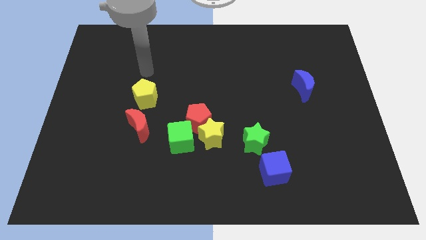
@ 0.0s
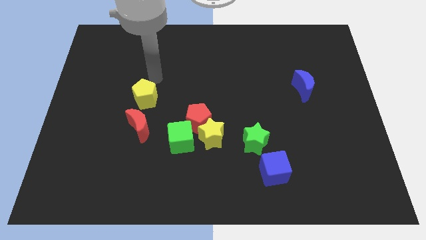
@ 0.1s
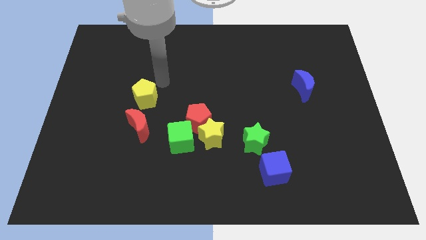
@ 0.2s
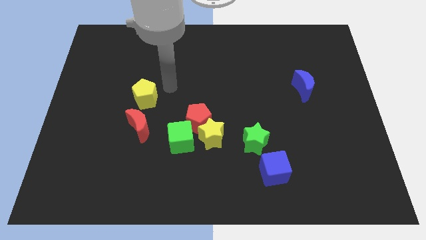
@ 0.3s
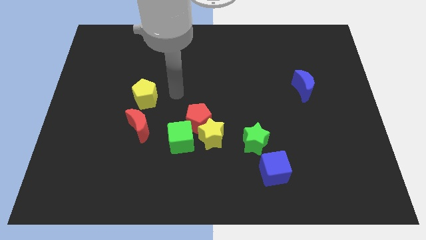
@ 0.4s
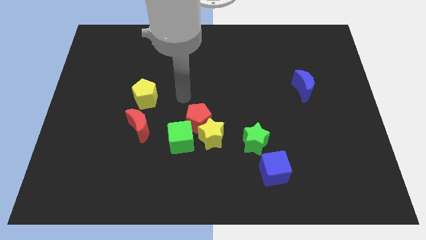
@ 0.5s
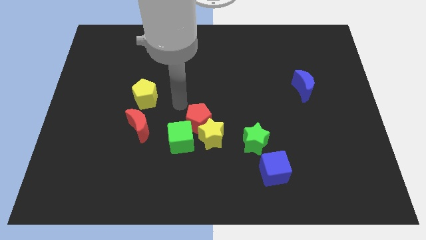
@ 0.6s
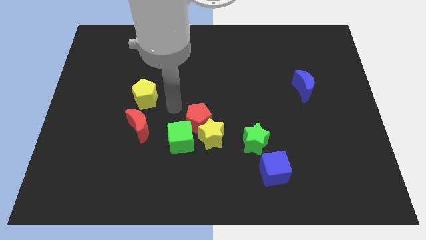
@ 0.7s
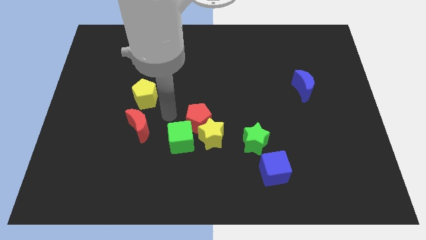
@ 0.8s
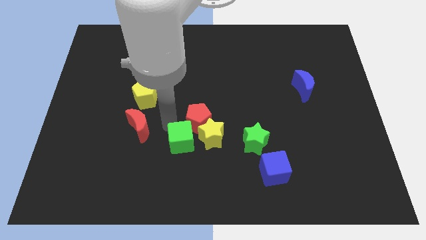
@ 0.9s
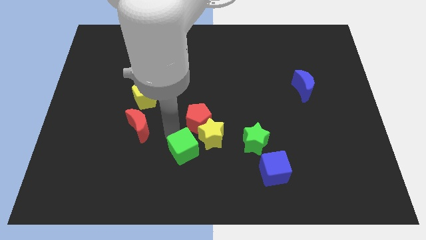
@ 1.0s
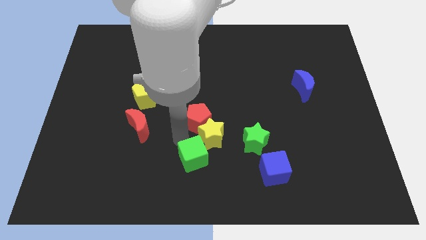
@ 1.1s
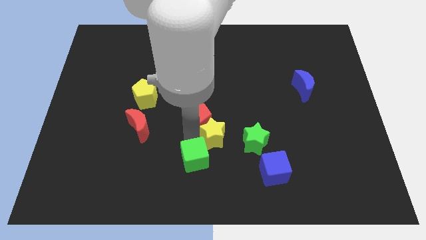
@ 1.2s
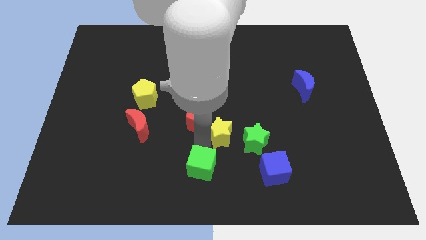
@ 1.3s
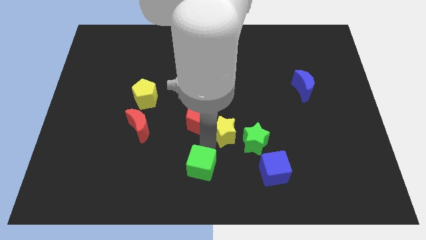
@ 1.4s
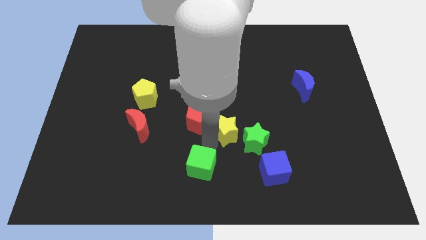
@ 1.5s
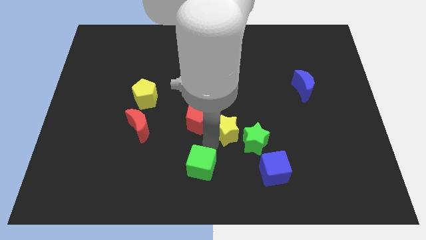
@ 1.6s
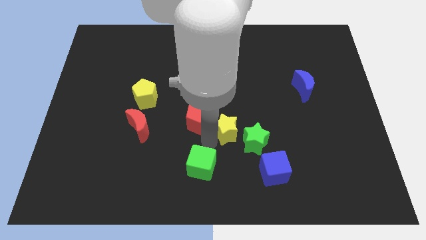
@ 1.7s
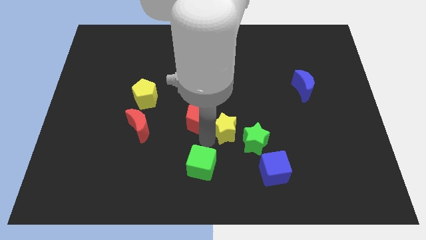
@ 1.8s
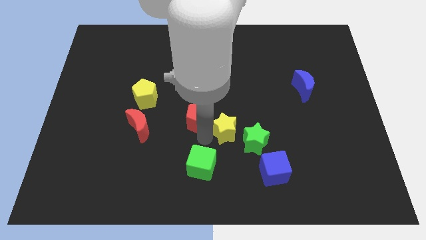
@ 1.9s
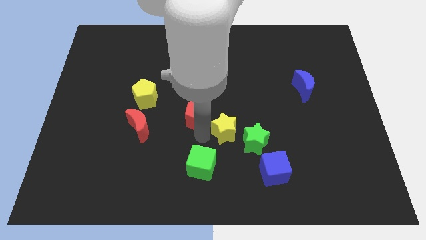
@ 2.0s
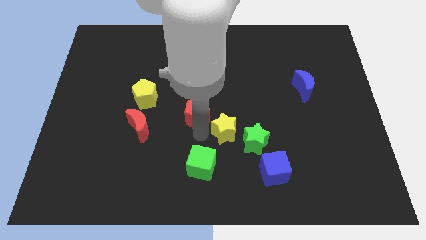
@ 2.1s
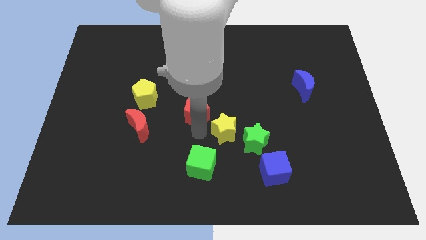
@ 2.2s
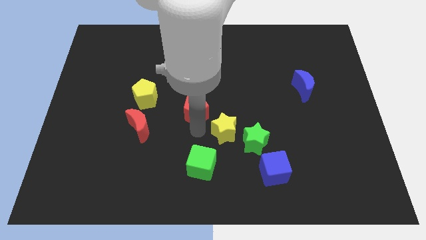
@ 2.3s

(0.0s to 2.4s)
move the red pentagon away from the yellow star and green cube

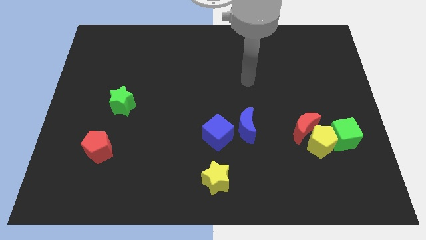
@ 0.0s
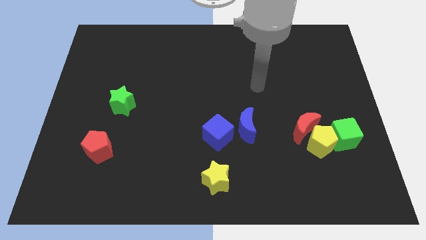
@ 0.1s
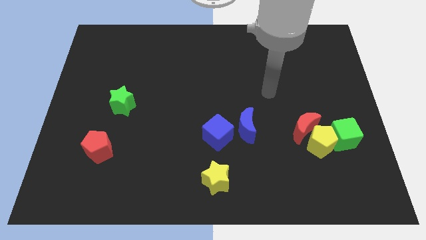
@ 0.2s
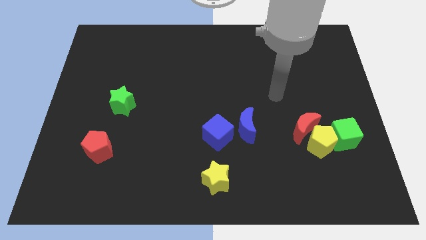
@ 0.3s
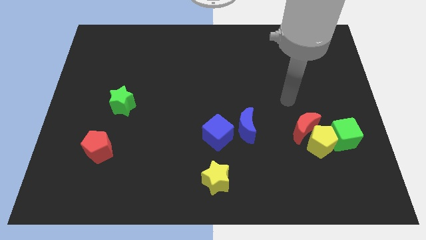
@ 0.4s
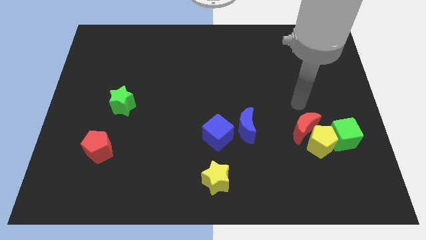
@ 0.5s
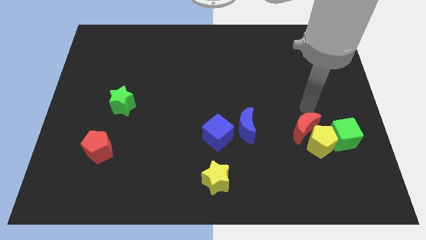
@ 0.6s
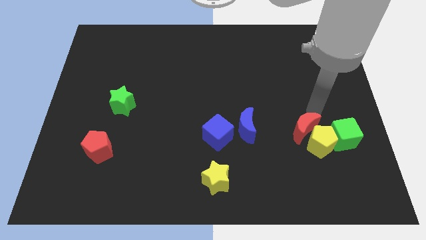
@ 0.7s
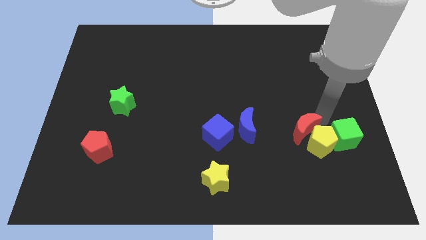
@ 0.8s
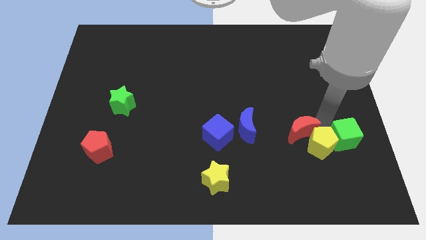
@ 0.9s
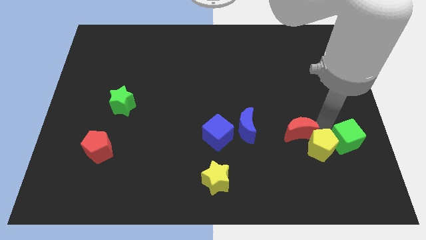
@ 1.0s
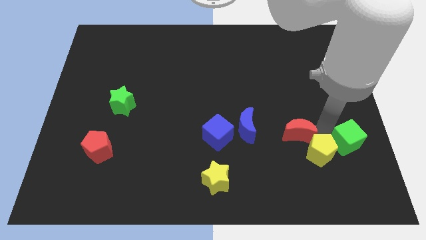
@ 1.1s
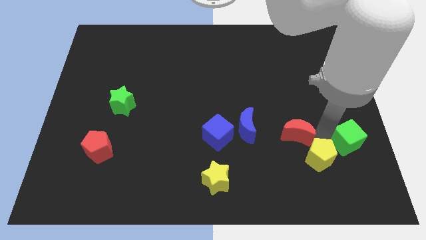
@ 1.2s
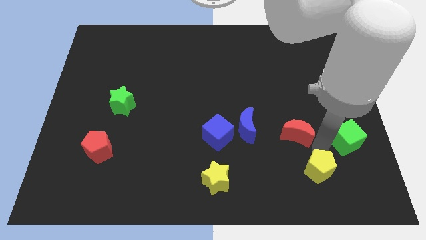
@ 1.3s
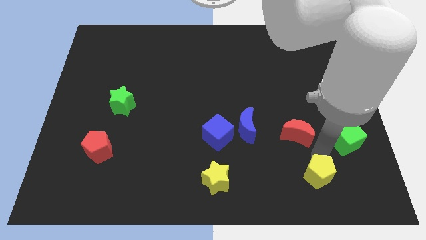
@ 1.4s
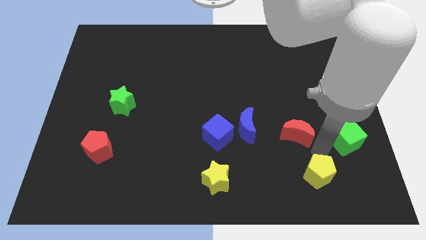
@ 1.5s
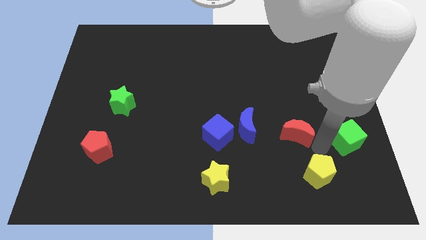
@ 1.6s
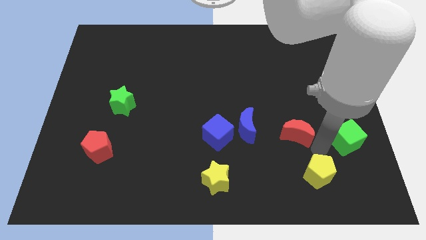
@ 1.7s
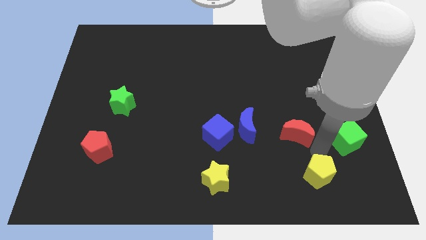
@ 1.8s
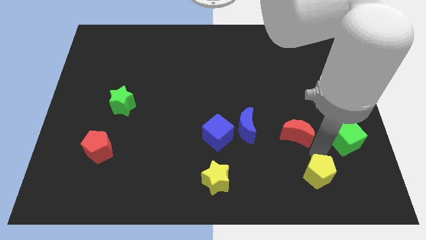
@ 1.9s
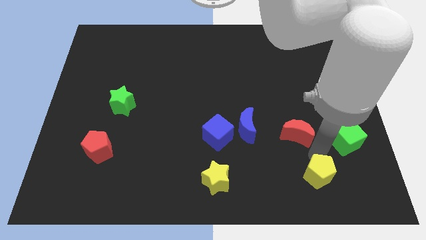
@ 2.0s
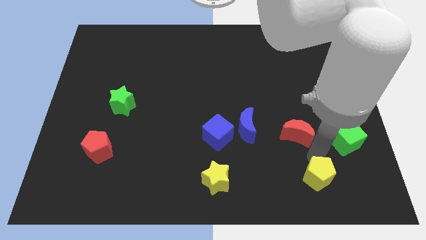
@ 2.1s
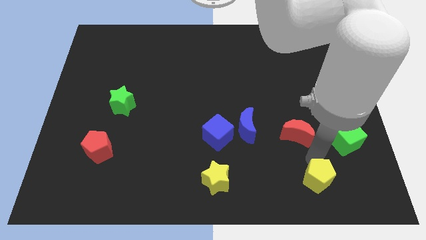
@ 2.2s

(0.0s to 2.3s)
separate the yellow pentagon from the red moon and green cube

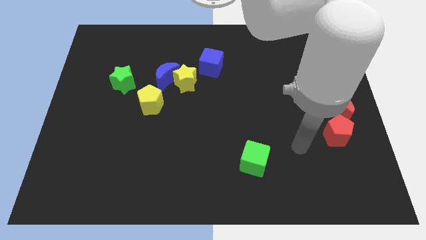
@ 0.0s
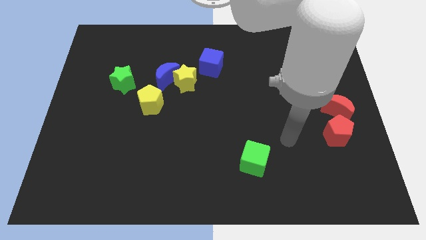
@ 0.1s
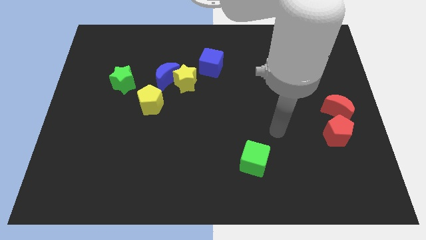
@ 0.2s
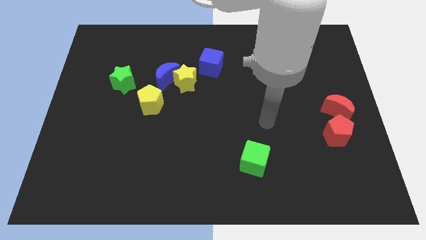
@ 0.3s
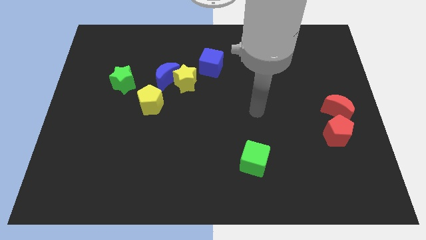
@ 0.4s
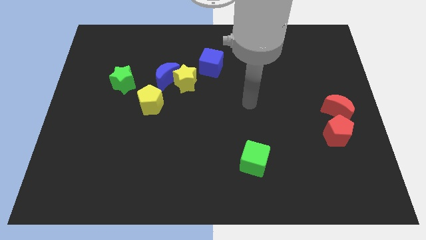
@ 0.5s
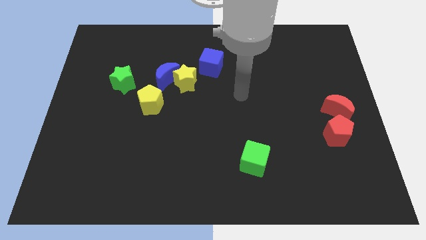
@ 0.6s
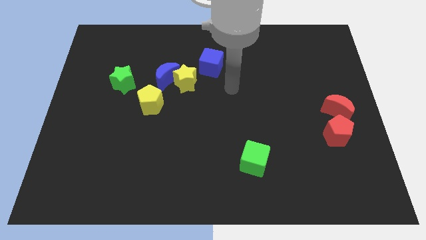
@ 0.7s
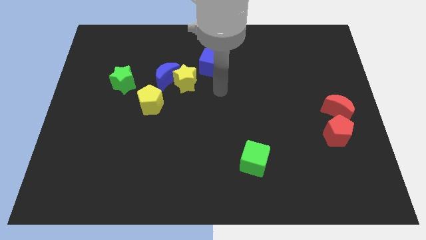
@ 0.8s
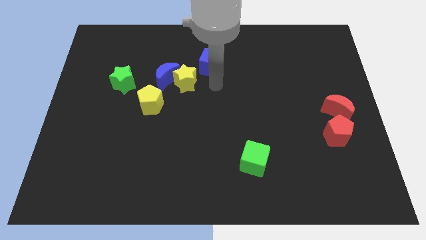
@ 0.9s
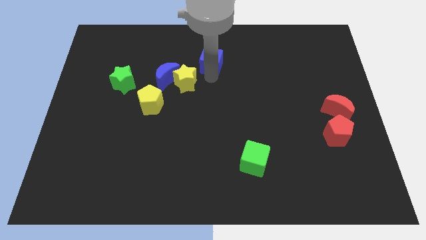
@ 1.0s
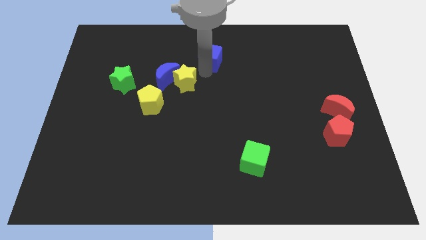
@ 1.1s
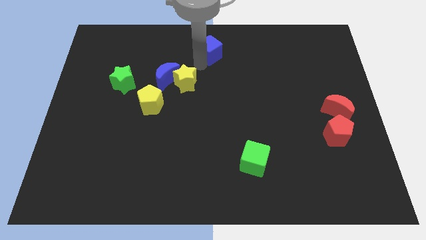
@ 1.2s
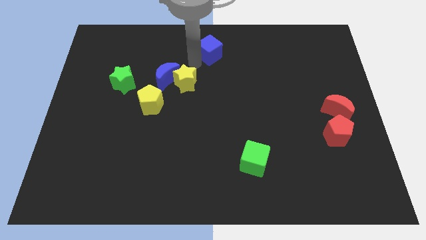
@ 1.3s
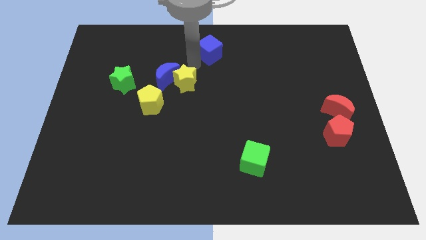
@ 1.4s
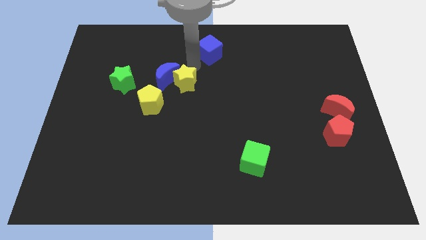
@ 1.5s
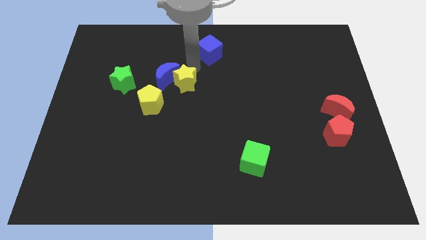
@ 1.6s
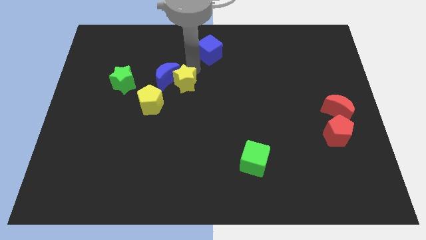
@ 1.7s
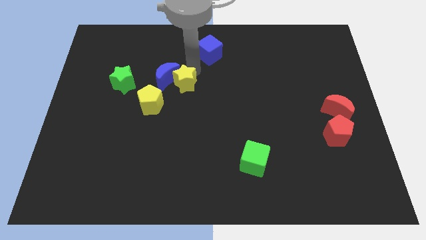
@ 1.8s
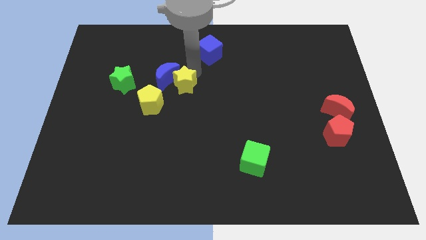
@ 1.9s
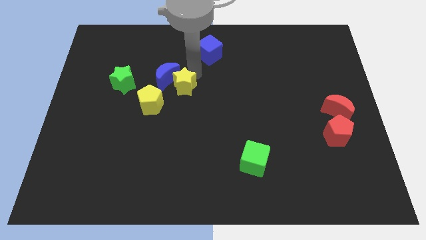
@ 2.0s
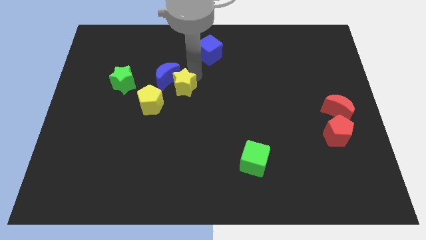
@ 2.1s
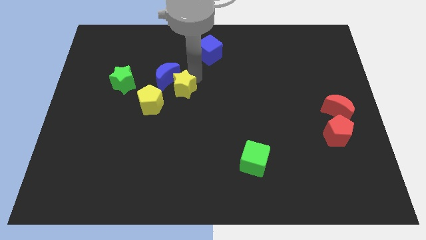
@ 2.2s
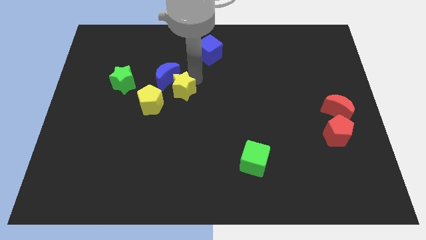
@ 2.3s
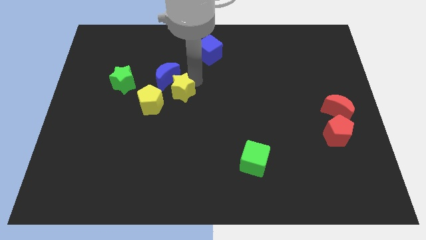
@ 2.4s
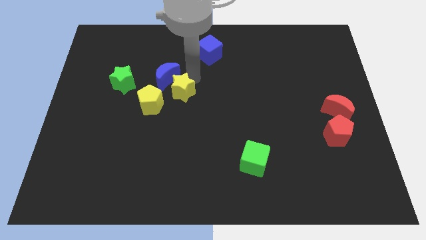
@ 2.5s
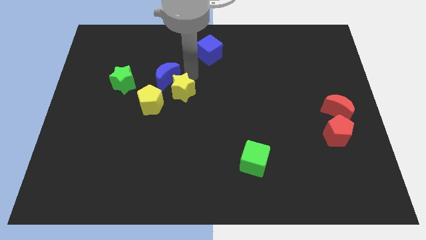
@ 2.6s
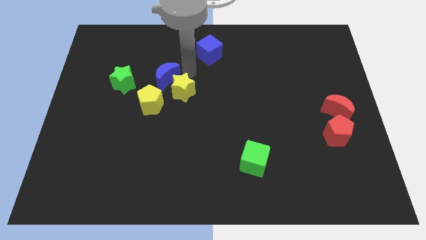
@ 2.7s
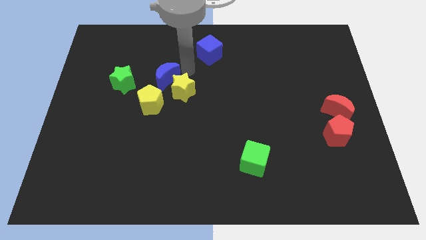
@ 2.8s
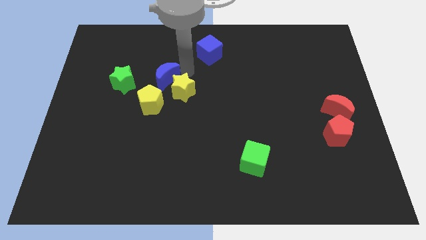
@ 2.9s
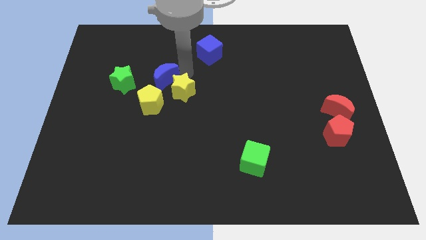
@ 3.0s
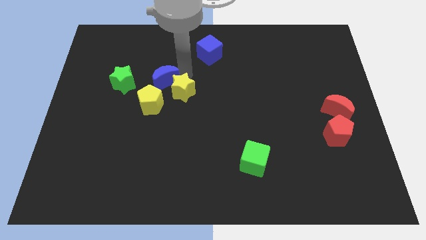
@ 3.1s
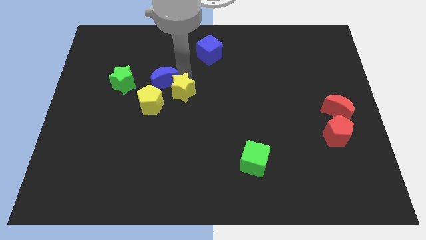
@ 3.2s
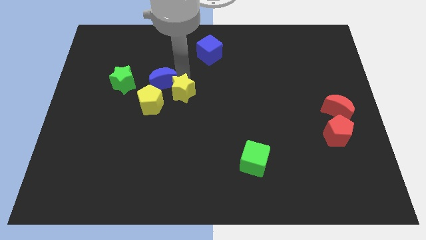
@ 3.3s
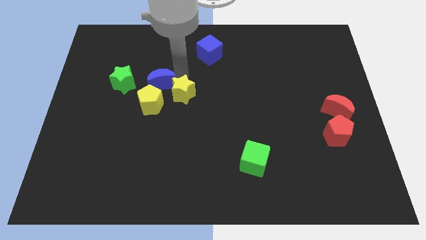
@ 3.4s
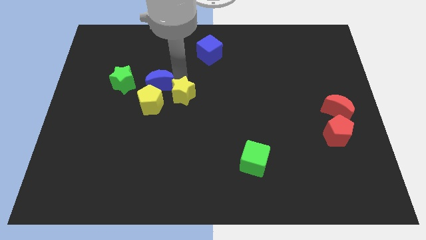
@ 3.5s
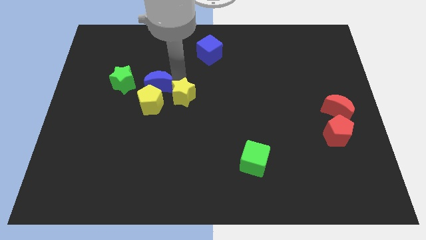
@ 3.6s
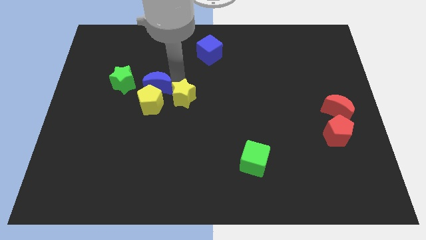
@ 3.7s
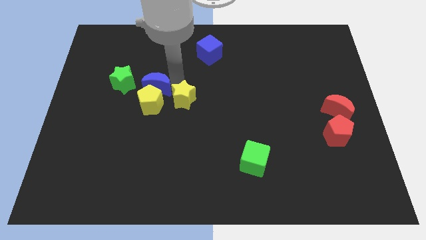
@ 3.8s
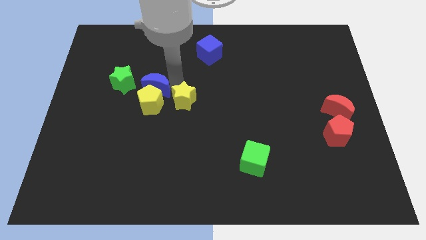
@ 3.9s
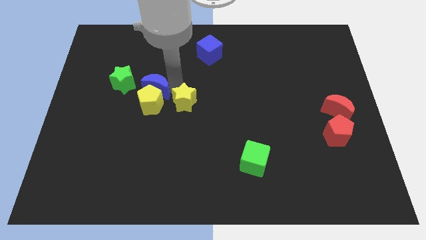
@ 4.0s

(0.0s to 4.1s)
separate the yellow star from the blue moon and blue cube

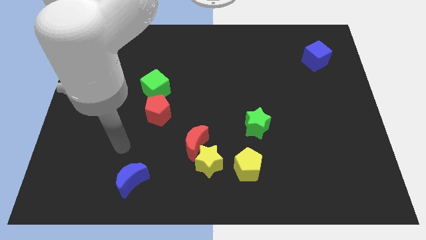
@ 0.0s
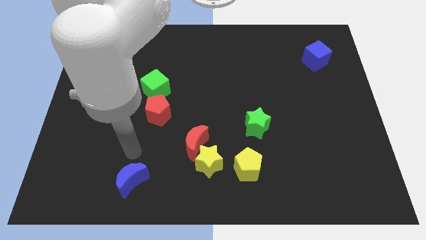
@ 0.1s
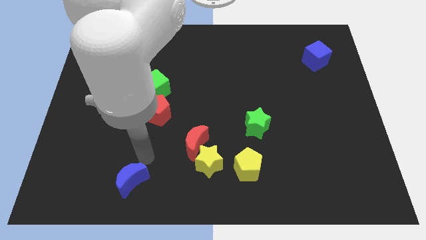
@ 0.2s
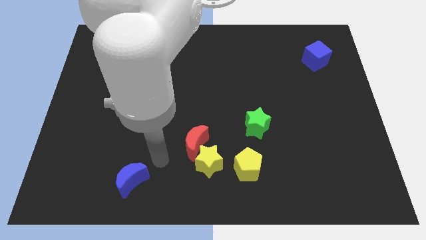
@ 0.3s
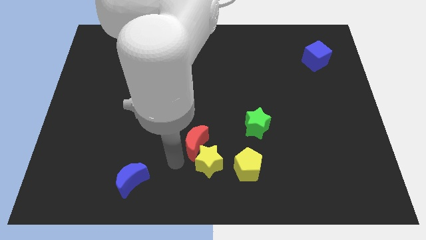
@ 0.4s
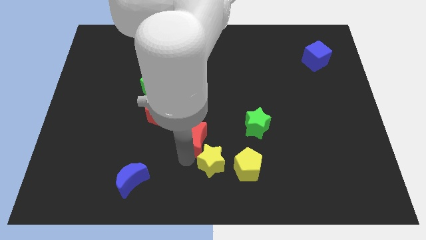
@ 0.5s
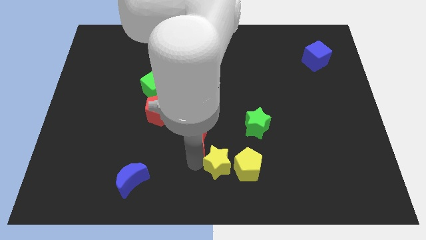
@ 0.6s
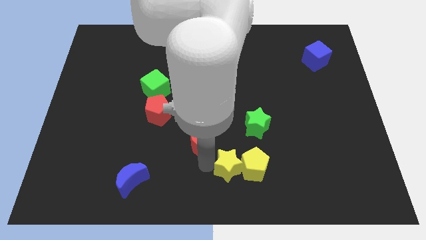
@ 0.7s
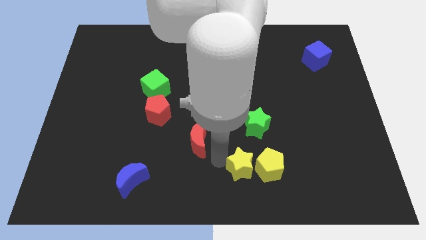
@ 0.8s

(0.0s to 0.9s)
move the red moon away from the yellow star
